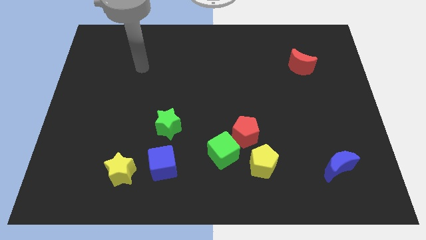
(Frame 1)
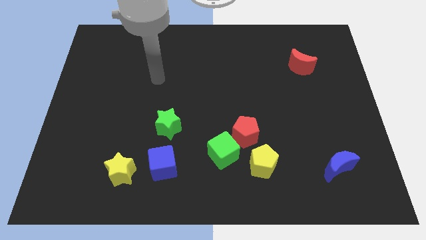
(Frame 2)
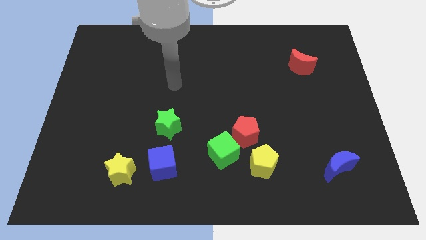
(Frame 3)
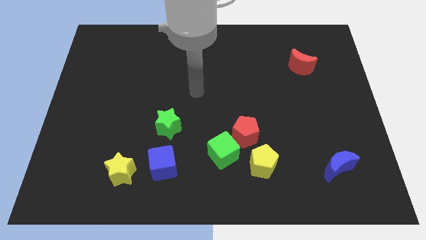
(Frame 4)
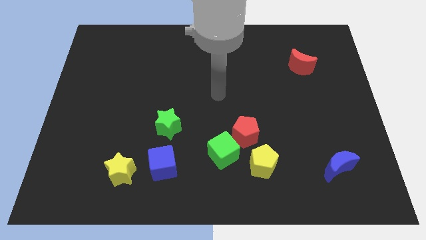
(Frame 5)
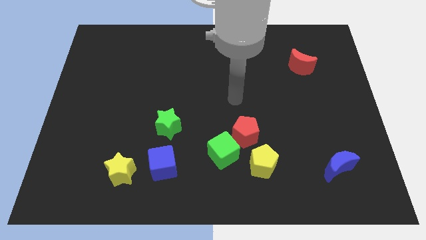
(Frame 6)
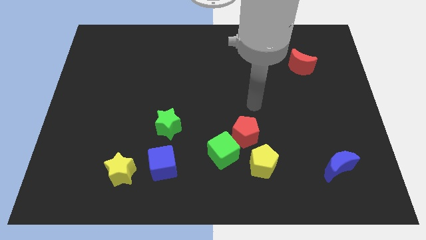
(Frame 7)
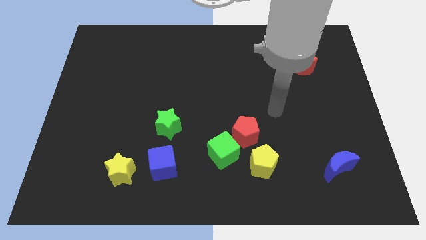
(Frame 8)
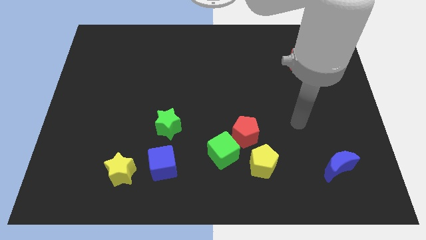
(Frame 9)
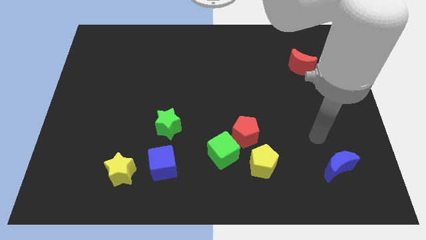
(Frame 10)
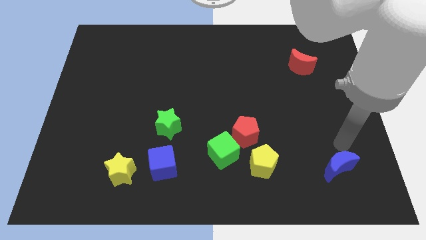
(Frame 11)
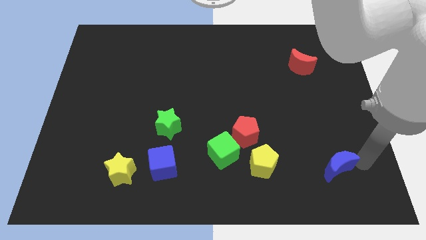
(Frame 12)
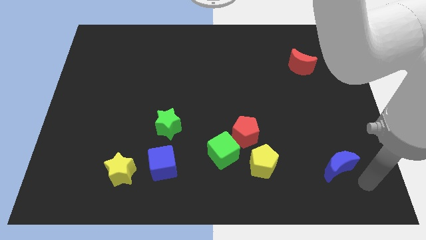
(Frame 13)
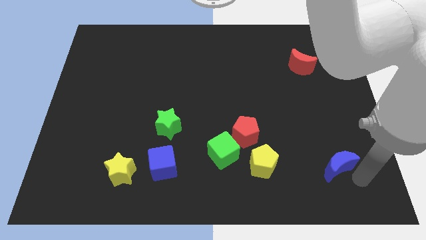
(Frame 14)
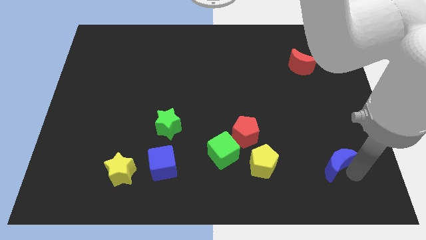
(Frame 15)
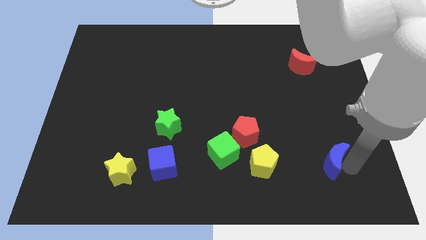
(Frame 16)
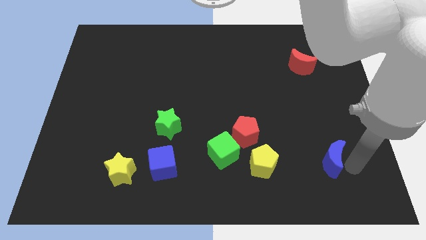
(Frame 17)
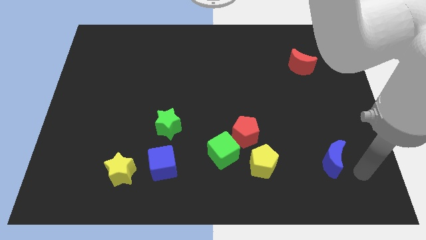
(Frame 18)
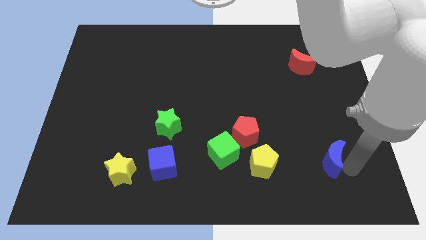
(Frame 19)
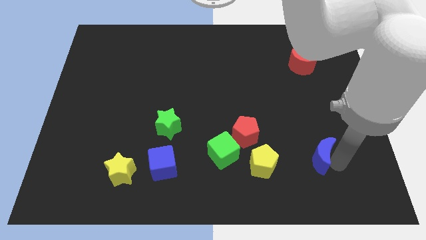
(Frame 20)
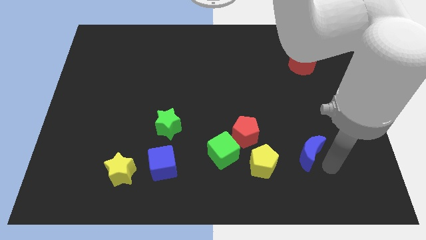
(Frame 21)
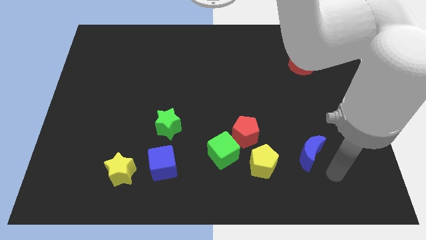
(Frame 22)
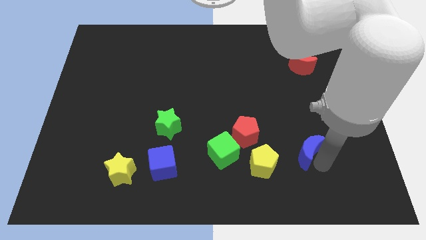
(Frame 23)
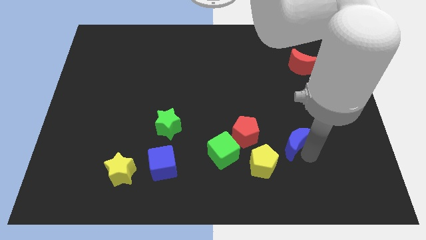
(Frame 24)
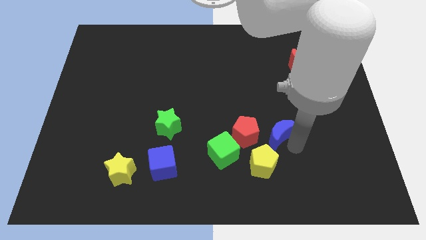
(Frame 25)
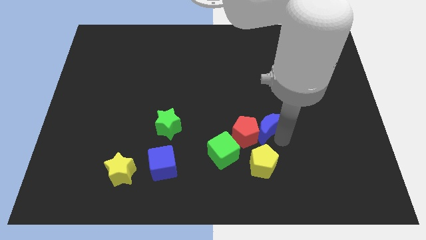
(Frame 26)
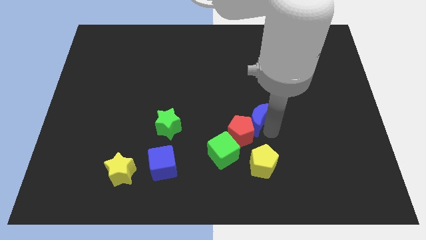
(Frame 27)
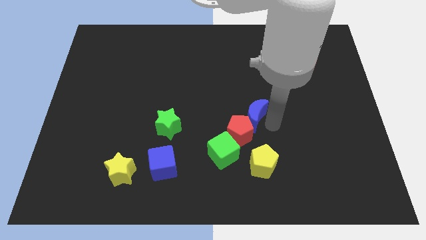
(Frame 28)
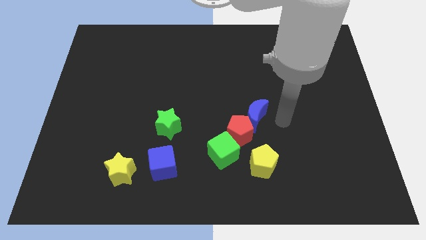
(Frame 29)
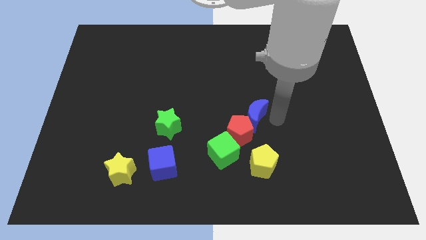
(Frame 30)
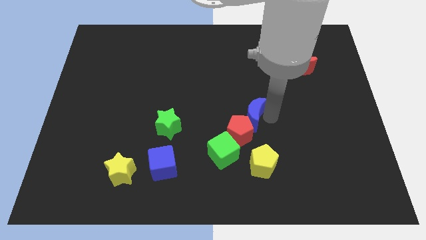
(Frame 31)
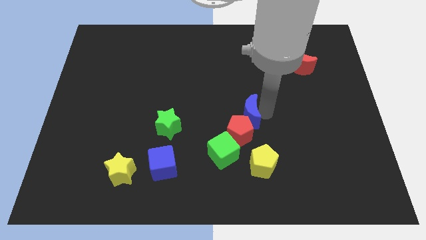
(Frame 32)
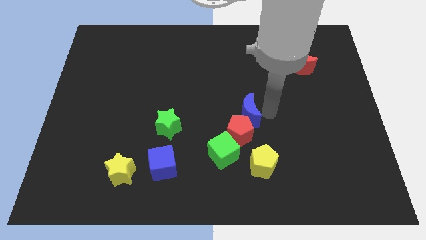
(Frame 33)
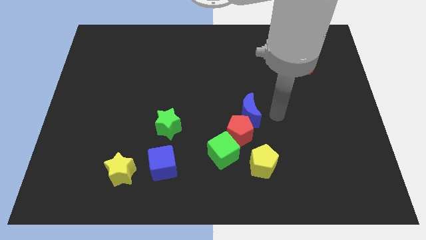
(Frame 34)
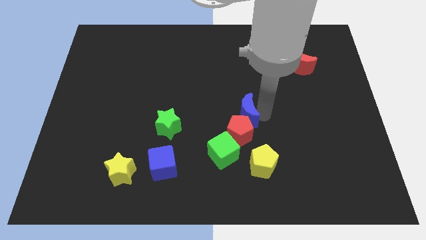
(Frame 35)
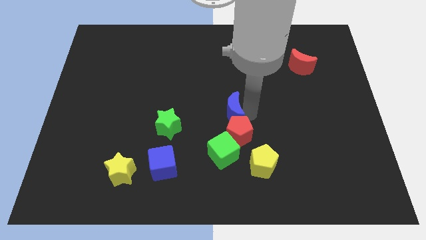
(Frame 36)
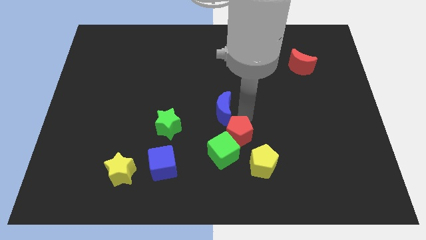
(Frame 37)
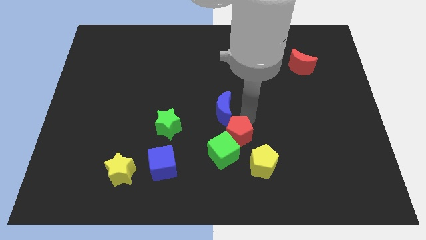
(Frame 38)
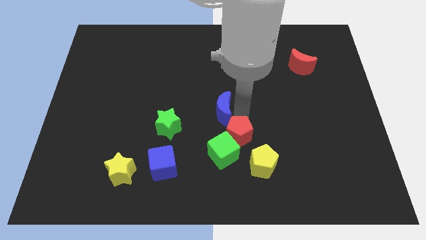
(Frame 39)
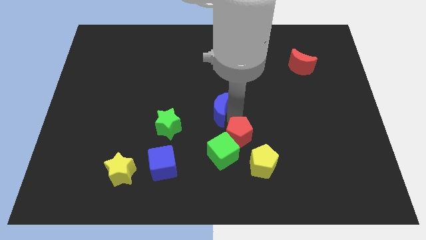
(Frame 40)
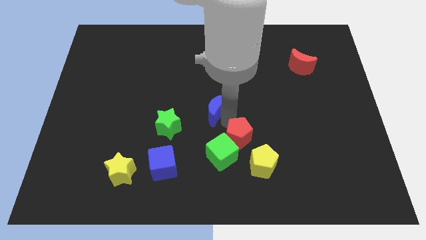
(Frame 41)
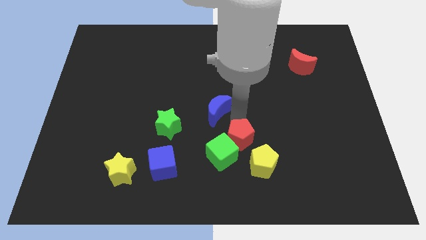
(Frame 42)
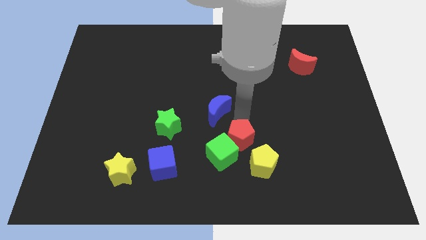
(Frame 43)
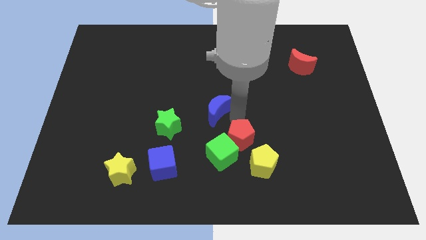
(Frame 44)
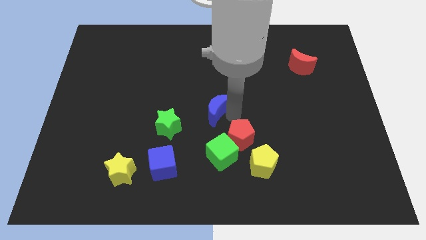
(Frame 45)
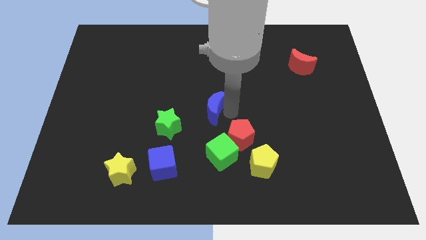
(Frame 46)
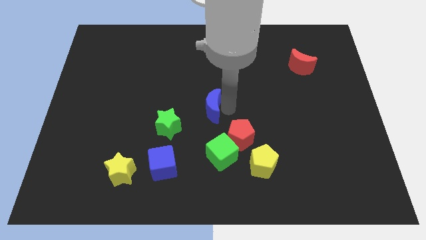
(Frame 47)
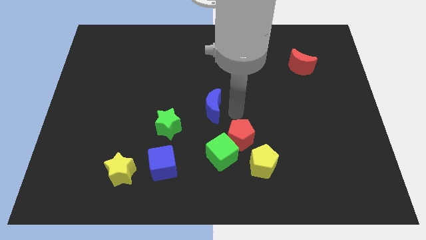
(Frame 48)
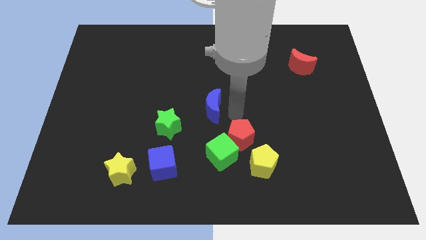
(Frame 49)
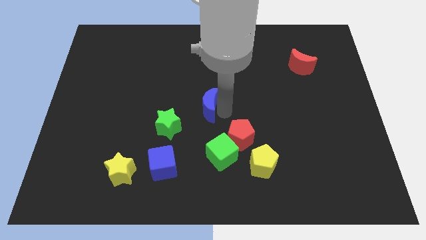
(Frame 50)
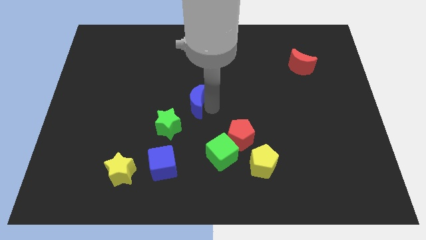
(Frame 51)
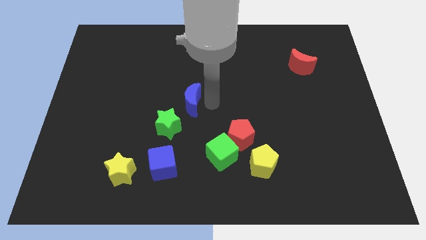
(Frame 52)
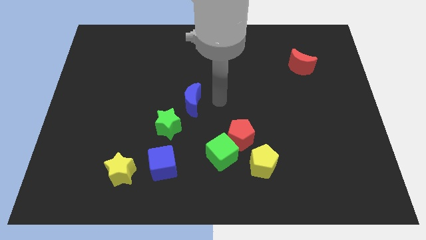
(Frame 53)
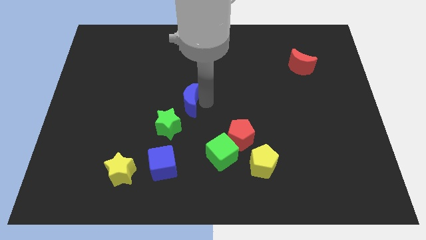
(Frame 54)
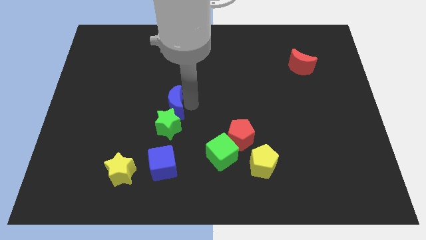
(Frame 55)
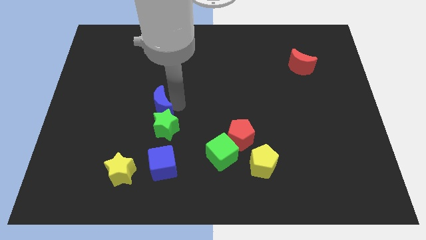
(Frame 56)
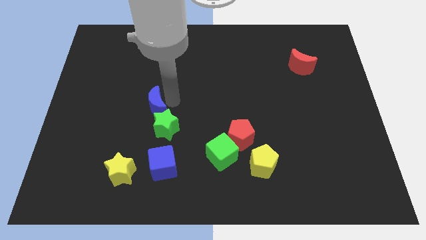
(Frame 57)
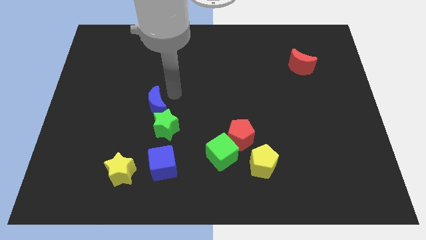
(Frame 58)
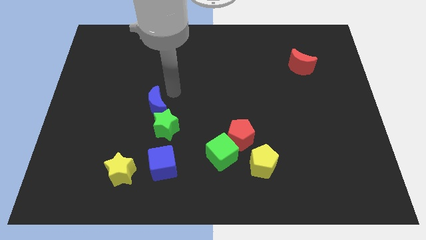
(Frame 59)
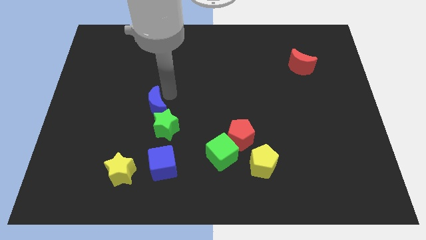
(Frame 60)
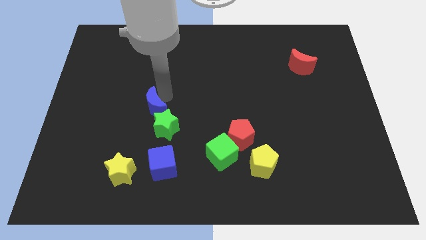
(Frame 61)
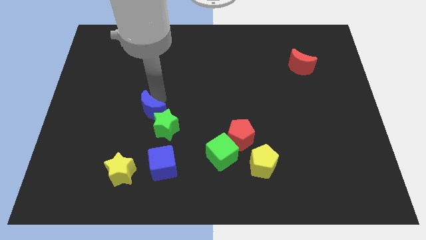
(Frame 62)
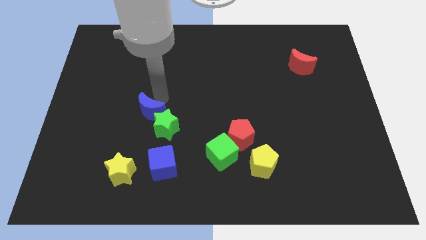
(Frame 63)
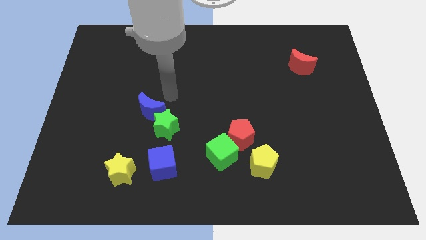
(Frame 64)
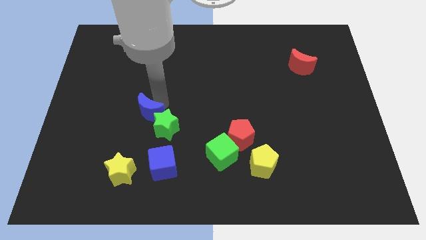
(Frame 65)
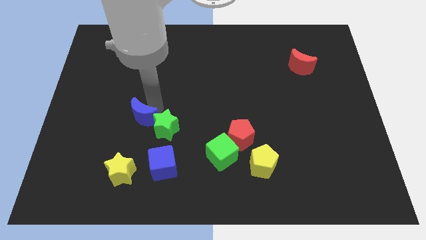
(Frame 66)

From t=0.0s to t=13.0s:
move the blue moon to the top side of the yellow star

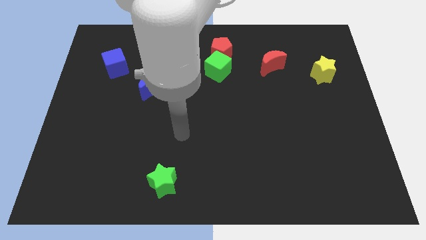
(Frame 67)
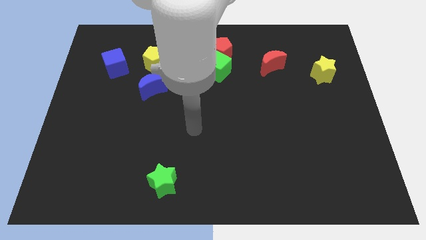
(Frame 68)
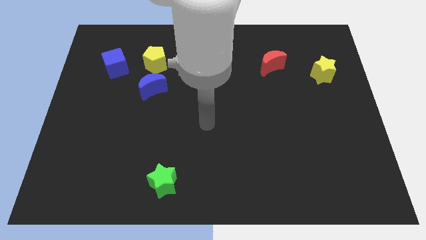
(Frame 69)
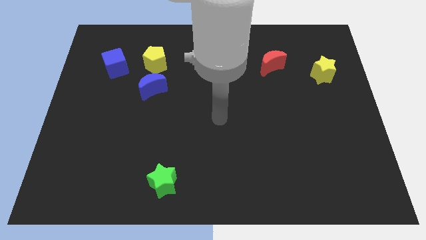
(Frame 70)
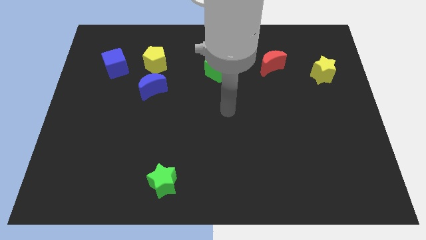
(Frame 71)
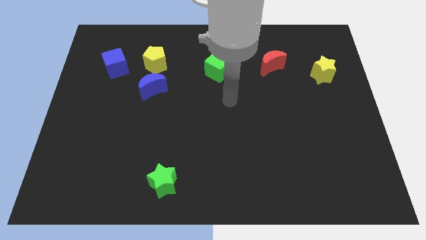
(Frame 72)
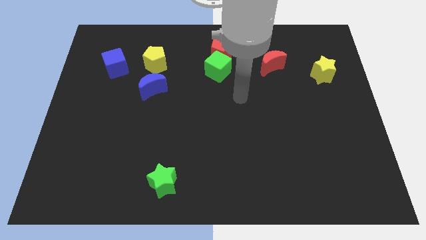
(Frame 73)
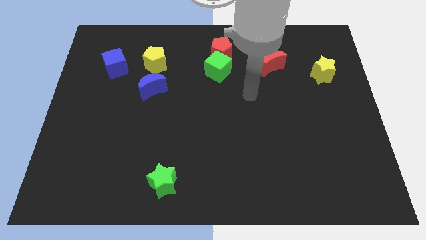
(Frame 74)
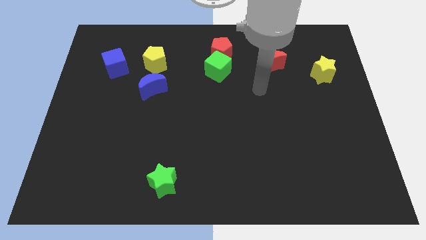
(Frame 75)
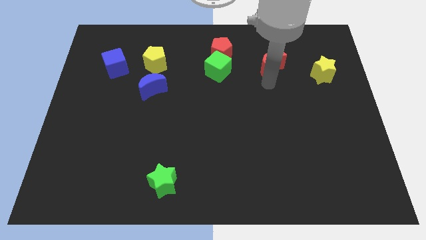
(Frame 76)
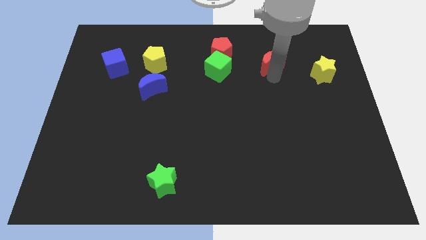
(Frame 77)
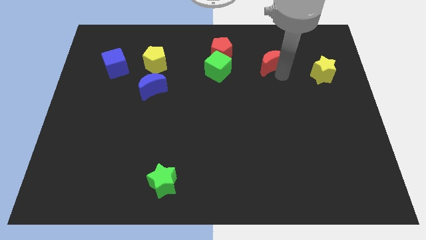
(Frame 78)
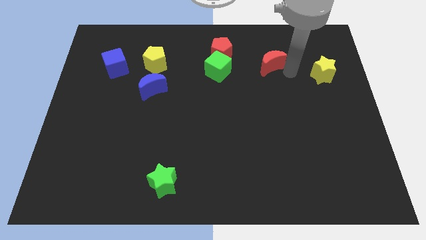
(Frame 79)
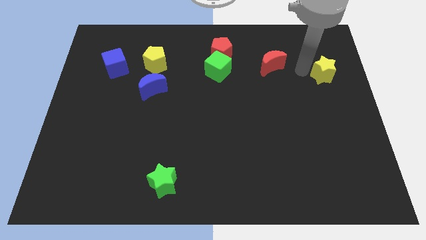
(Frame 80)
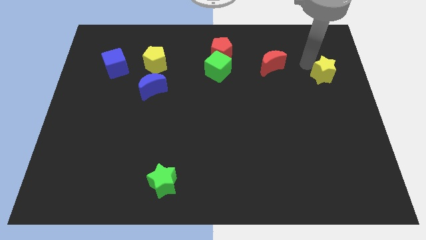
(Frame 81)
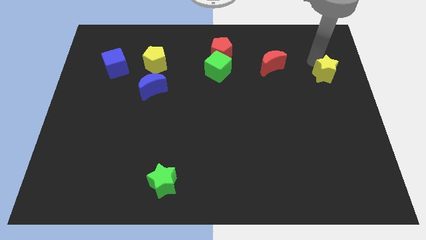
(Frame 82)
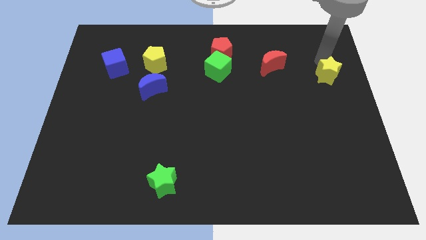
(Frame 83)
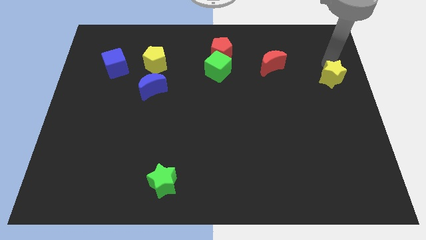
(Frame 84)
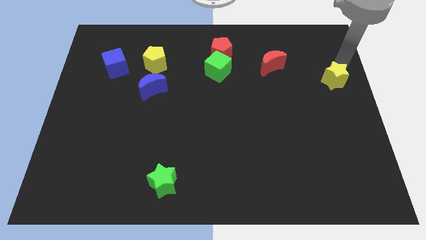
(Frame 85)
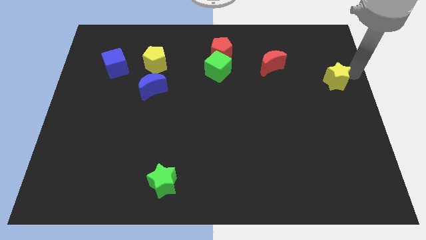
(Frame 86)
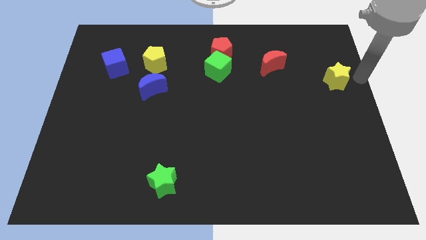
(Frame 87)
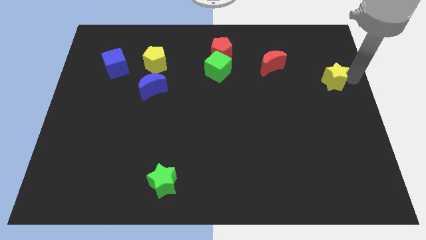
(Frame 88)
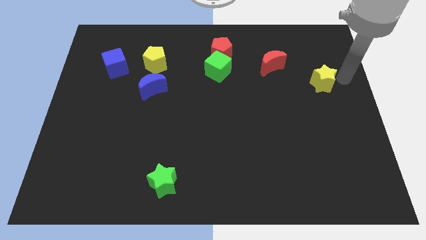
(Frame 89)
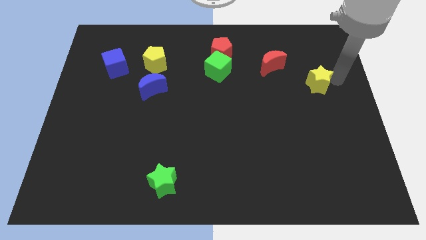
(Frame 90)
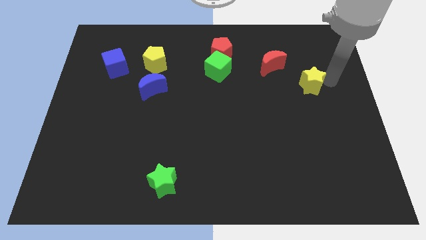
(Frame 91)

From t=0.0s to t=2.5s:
put the yellow star to the bottom right of the red moon
